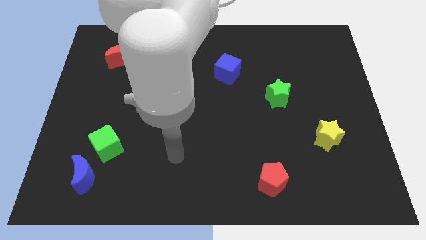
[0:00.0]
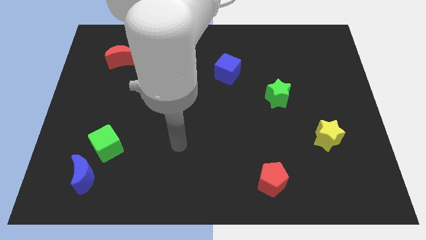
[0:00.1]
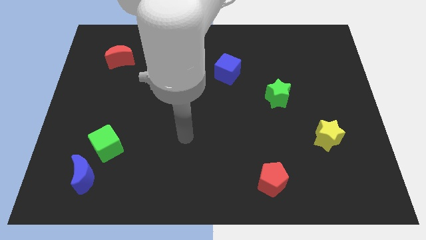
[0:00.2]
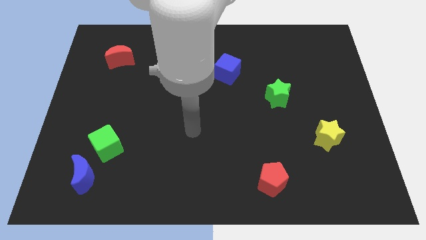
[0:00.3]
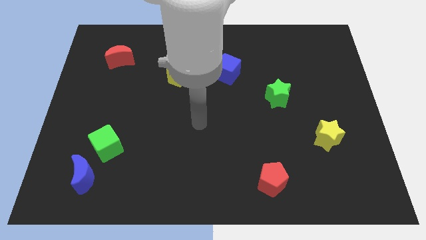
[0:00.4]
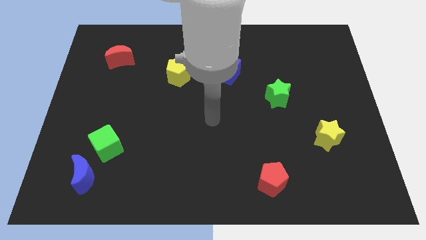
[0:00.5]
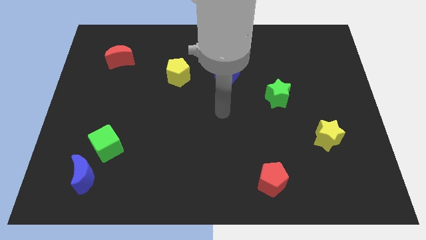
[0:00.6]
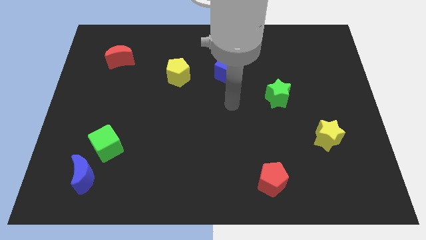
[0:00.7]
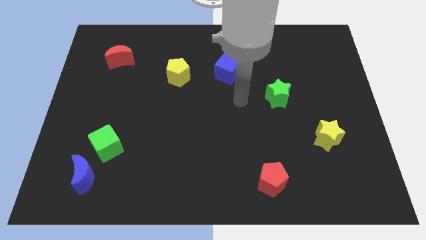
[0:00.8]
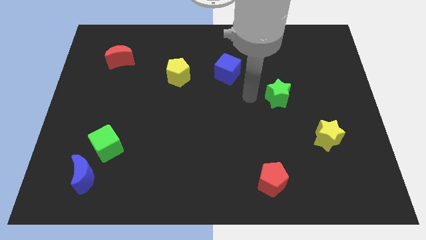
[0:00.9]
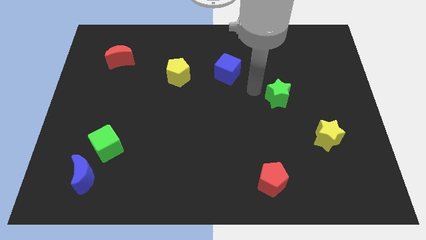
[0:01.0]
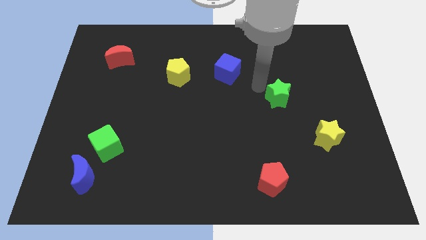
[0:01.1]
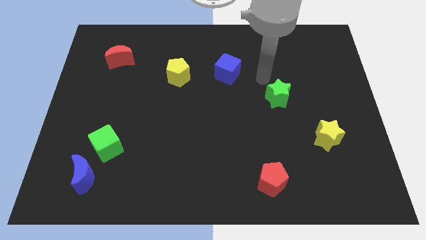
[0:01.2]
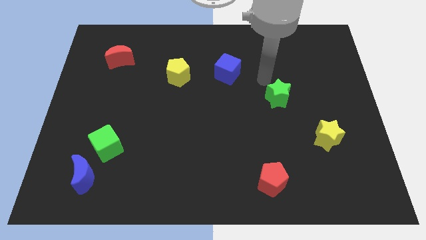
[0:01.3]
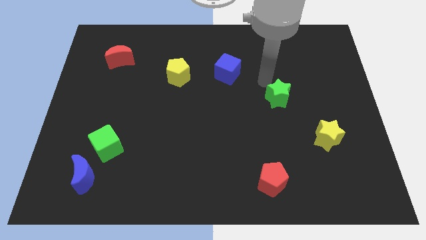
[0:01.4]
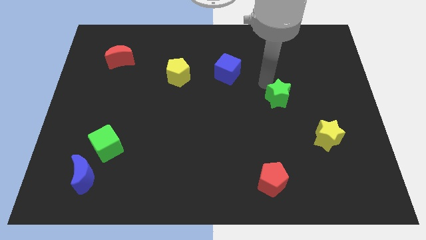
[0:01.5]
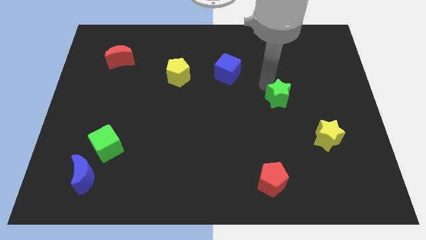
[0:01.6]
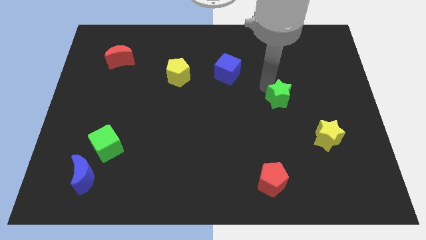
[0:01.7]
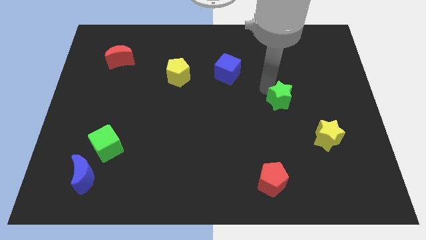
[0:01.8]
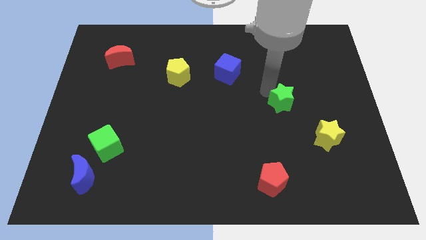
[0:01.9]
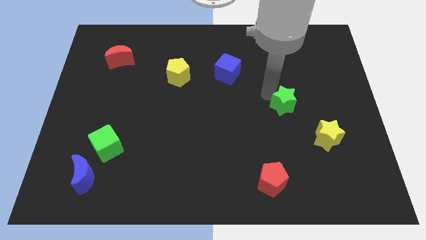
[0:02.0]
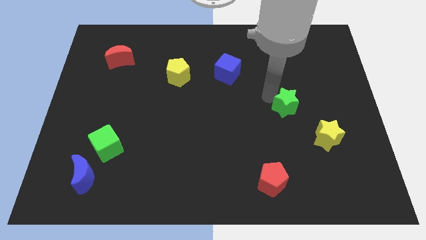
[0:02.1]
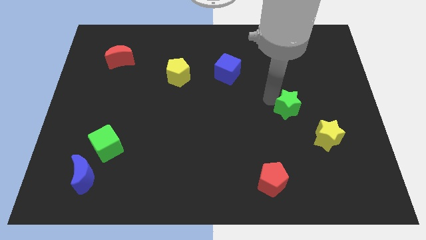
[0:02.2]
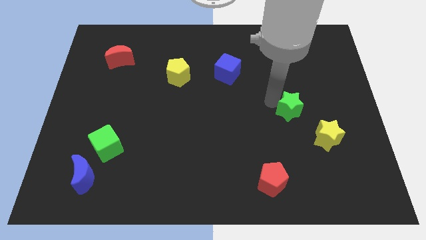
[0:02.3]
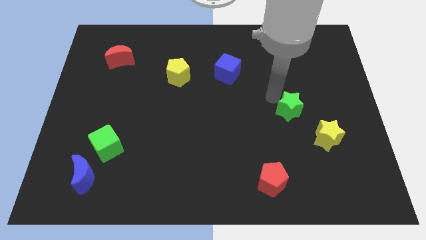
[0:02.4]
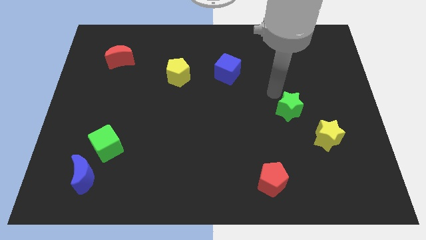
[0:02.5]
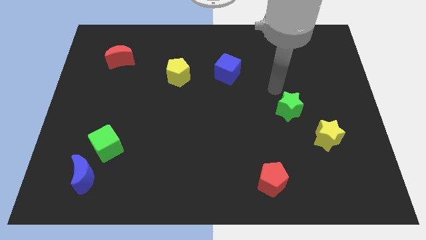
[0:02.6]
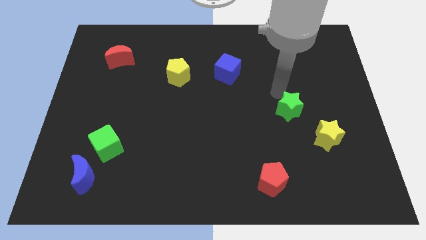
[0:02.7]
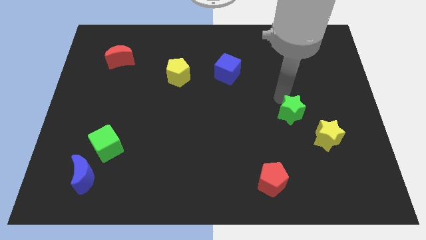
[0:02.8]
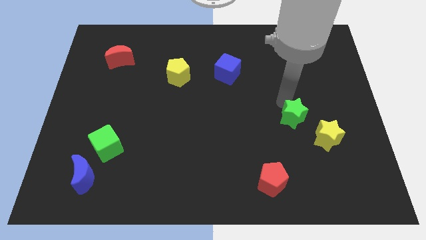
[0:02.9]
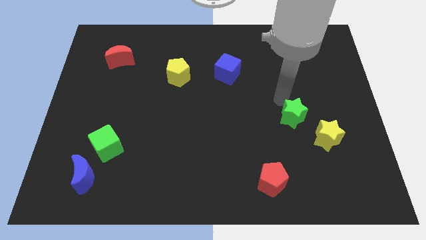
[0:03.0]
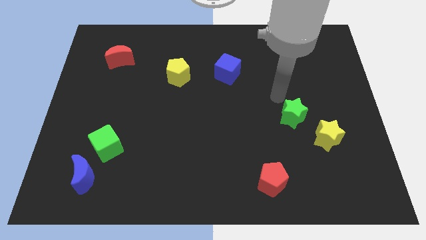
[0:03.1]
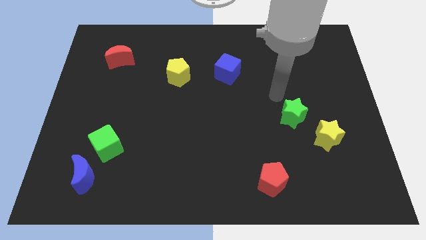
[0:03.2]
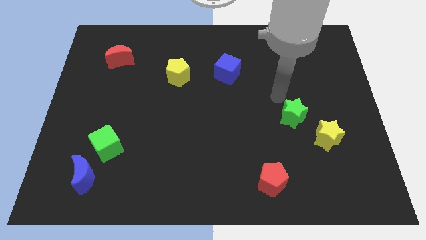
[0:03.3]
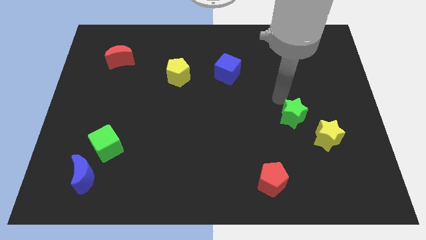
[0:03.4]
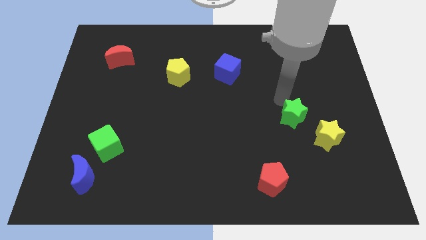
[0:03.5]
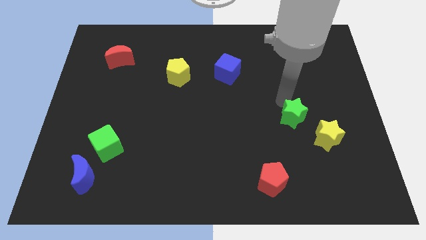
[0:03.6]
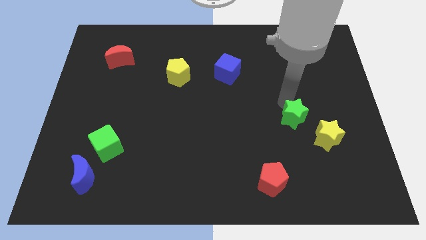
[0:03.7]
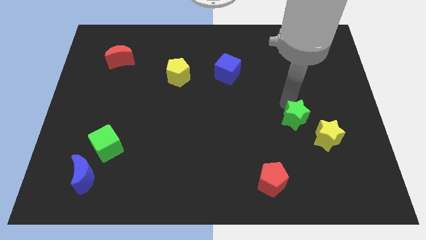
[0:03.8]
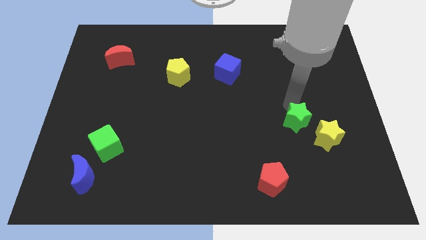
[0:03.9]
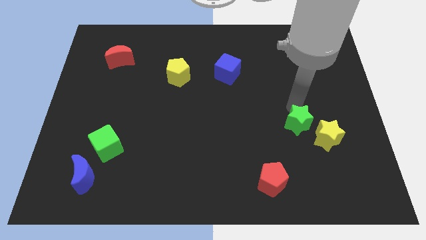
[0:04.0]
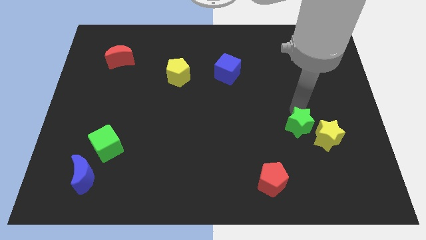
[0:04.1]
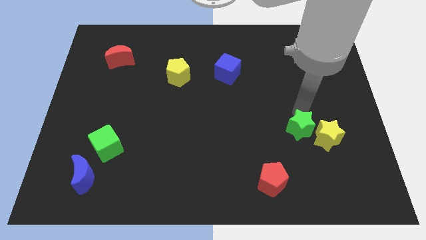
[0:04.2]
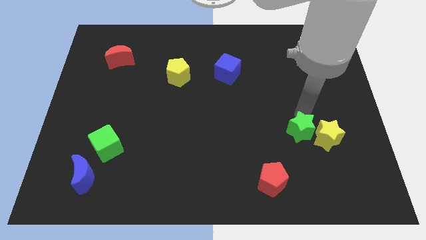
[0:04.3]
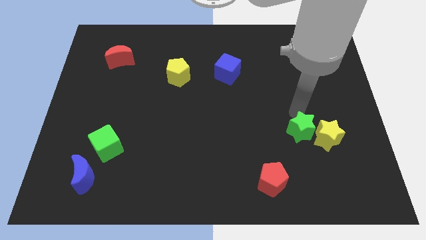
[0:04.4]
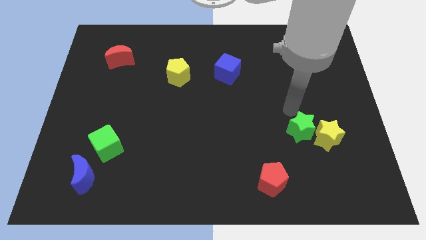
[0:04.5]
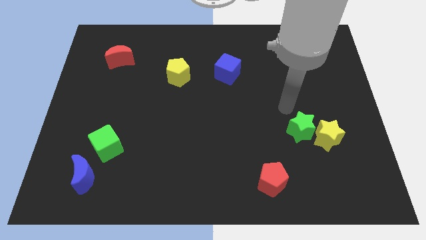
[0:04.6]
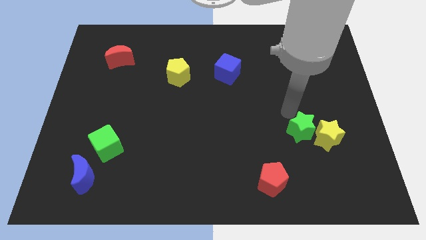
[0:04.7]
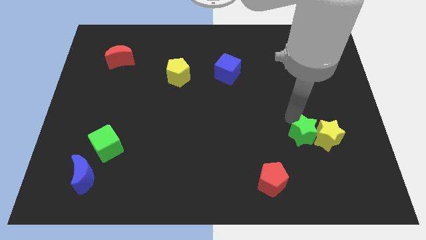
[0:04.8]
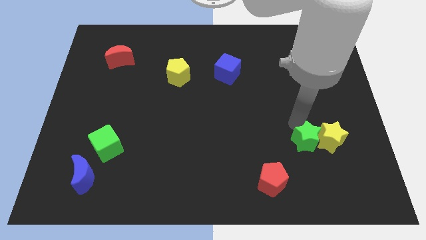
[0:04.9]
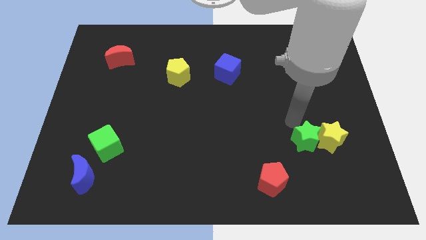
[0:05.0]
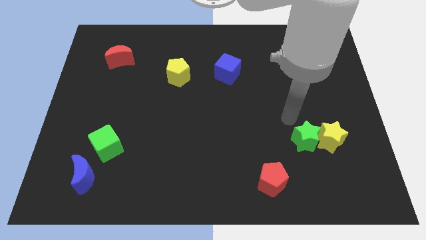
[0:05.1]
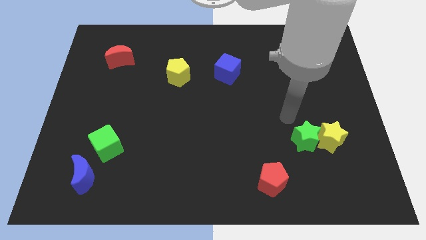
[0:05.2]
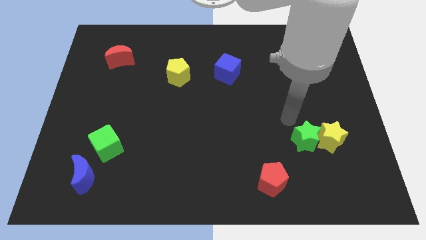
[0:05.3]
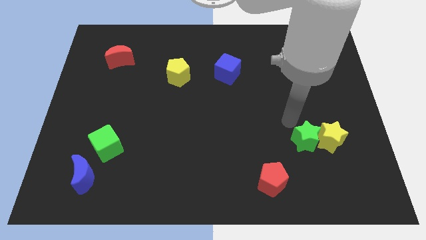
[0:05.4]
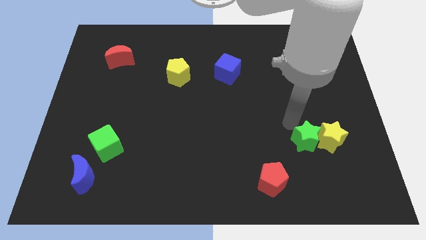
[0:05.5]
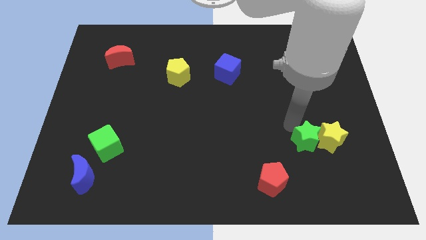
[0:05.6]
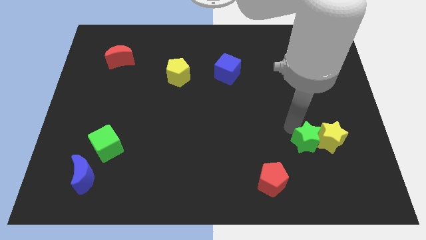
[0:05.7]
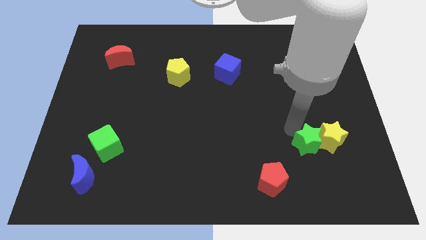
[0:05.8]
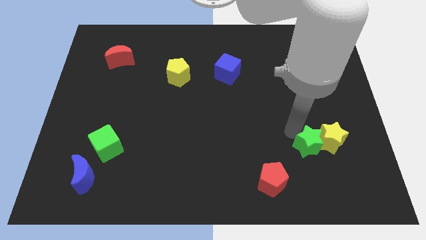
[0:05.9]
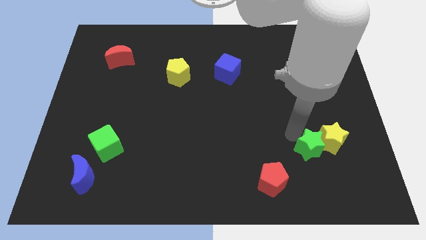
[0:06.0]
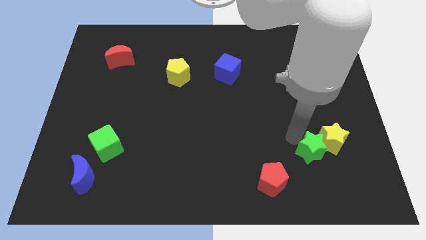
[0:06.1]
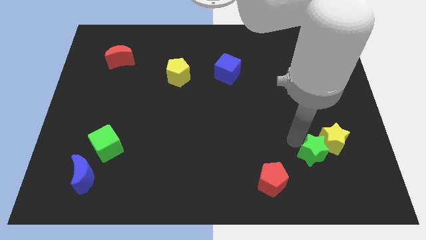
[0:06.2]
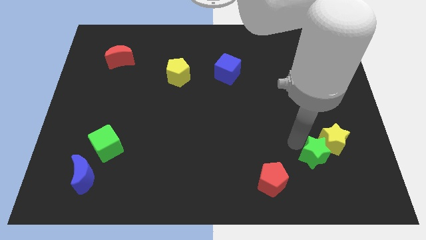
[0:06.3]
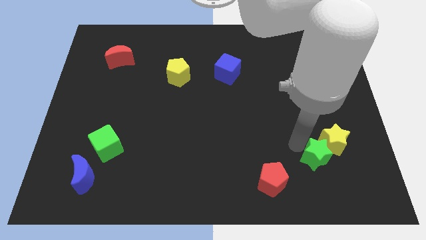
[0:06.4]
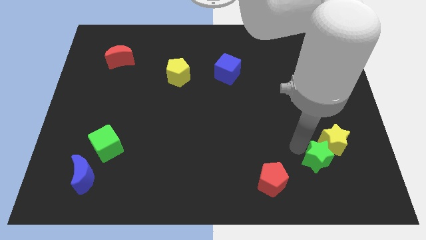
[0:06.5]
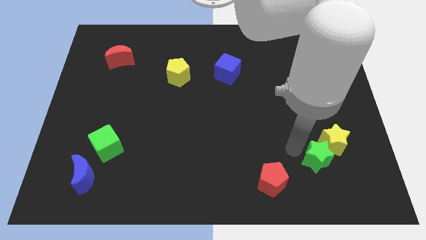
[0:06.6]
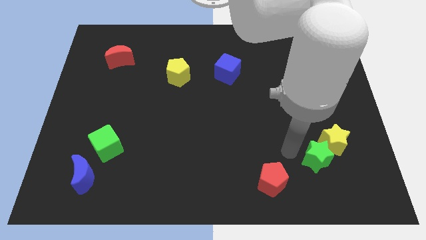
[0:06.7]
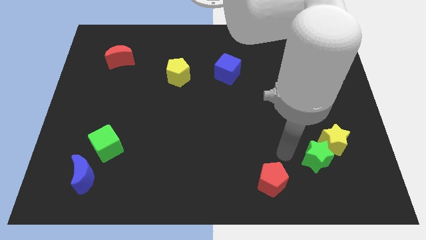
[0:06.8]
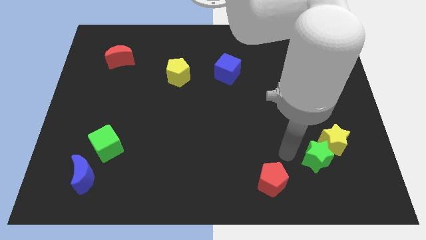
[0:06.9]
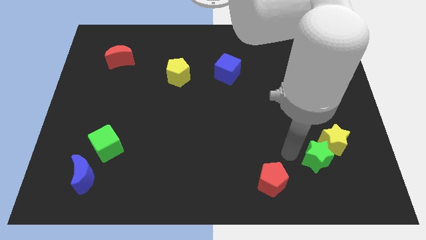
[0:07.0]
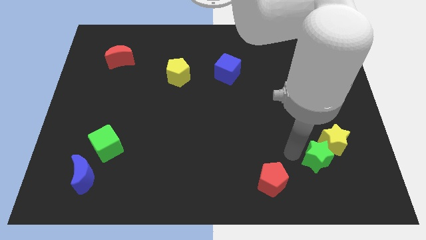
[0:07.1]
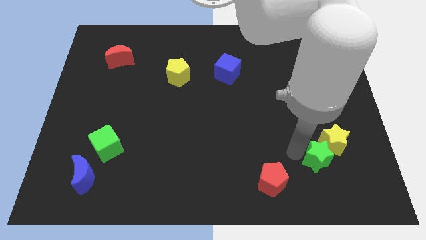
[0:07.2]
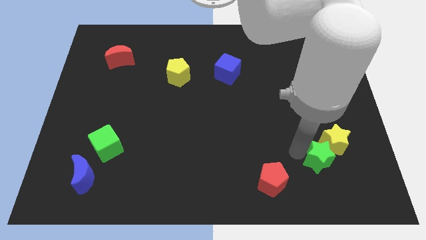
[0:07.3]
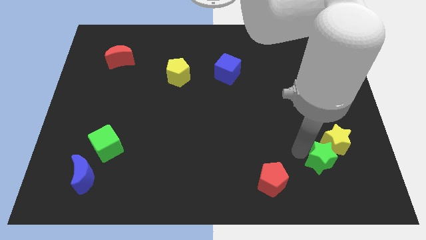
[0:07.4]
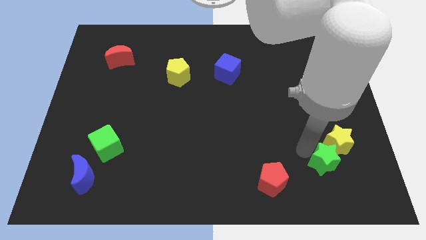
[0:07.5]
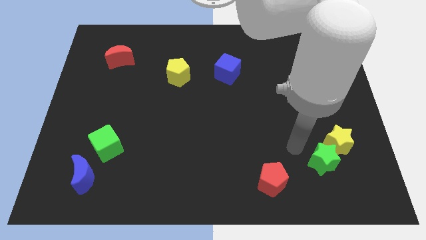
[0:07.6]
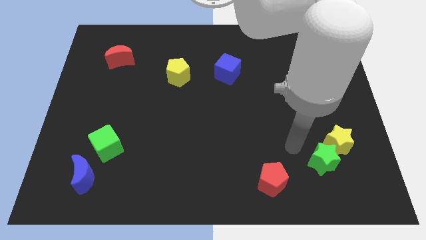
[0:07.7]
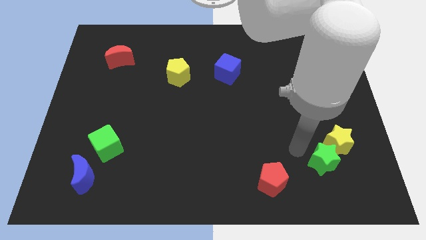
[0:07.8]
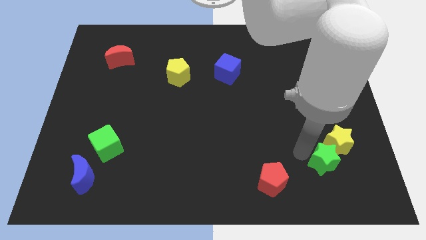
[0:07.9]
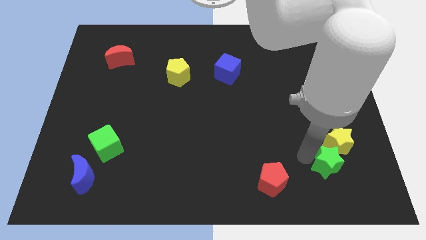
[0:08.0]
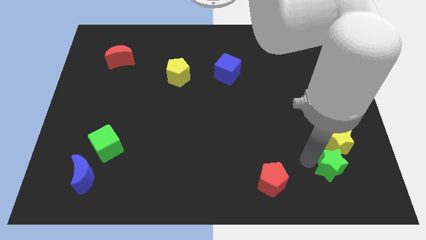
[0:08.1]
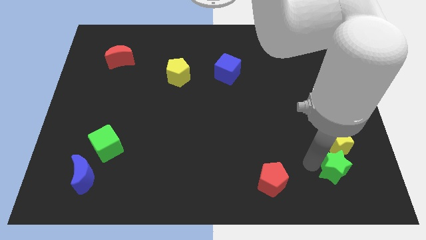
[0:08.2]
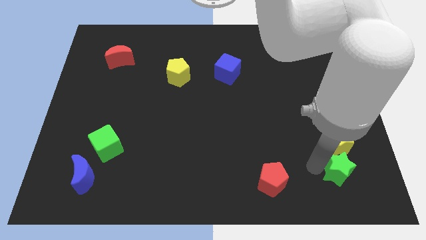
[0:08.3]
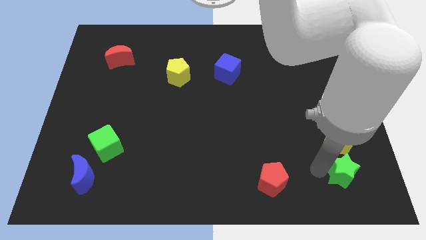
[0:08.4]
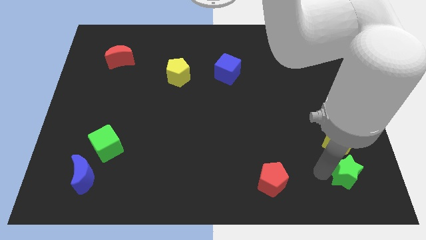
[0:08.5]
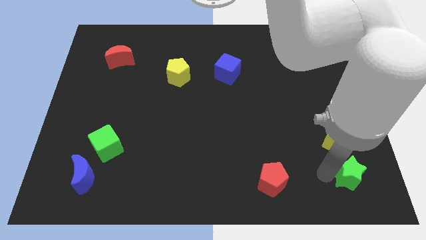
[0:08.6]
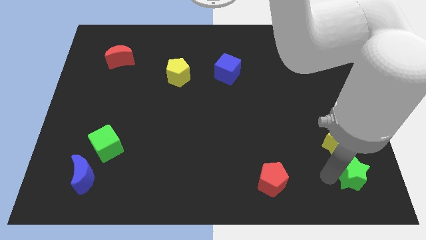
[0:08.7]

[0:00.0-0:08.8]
move the green star to the bottom right corner
